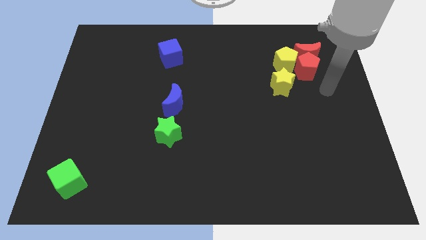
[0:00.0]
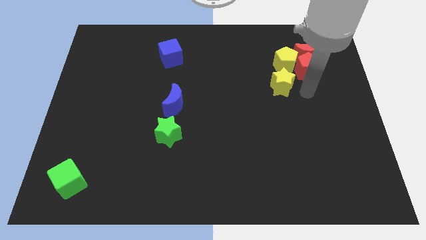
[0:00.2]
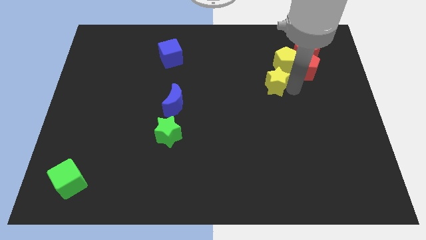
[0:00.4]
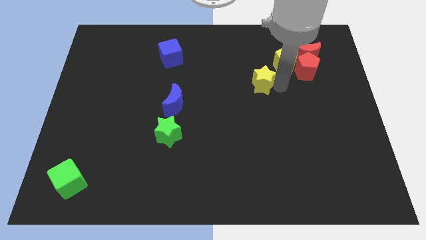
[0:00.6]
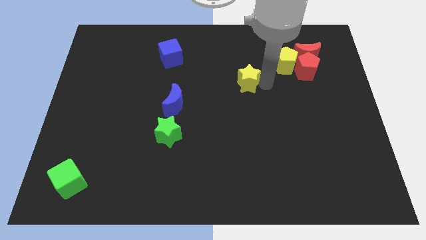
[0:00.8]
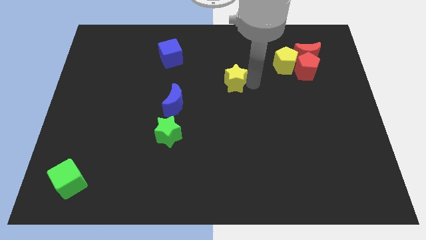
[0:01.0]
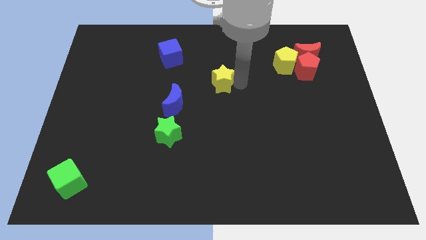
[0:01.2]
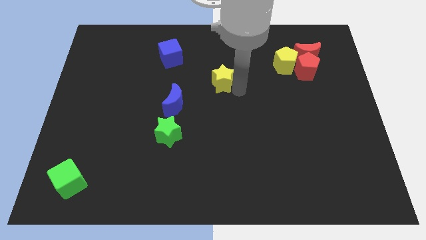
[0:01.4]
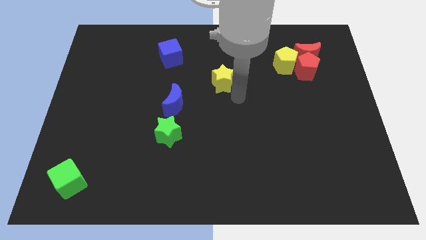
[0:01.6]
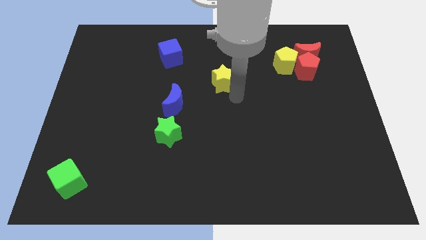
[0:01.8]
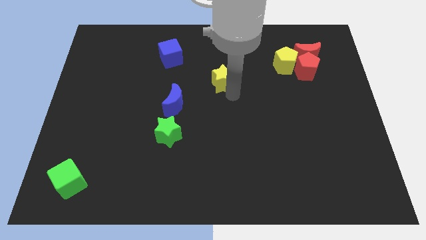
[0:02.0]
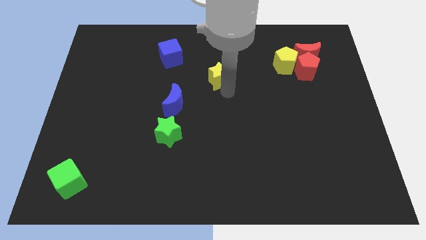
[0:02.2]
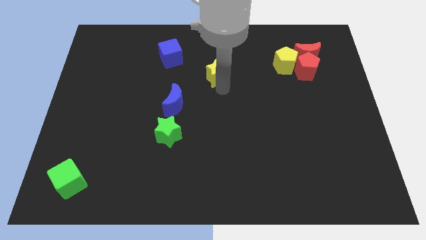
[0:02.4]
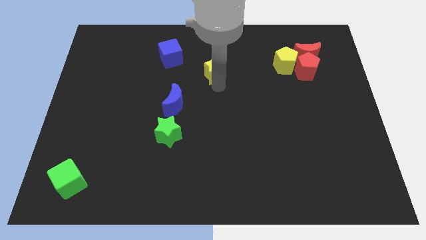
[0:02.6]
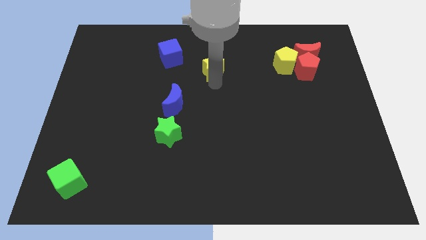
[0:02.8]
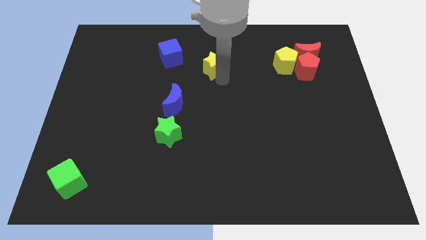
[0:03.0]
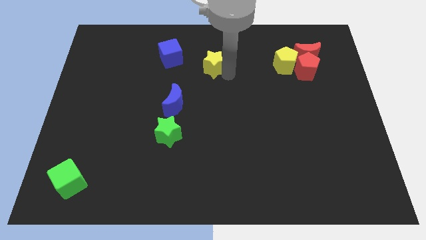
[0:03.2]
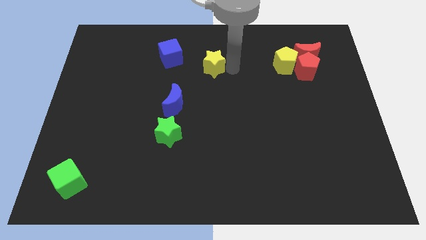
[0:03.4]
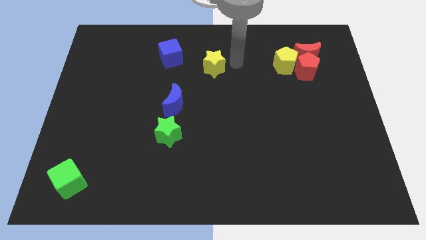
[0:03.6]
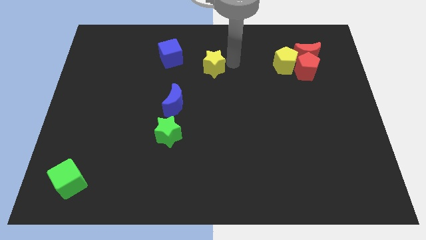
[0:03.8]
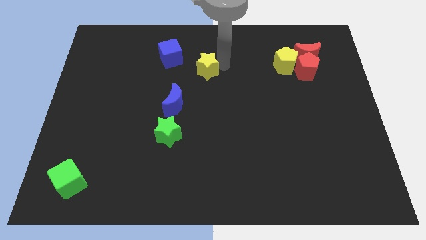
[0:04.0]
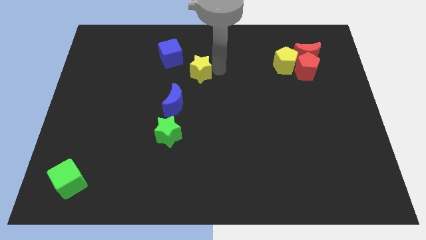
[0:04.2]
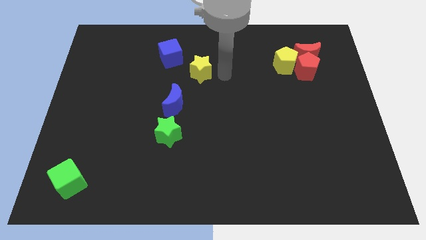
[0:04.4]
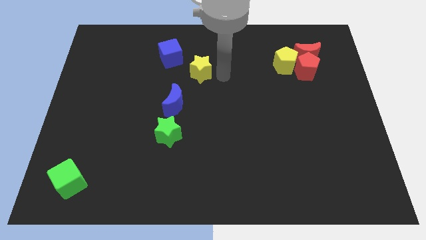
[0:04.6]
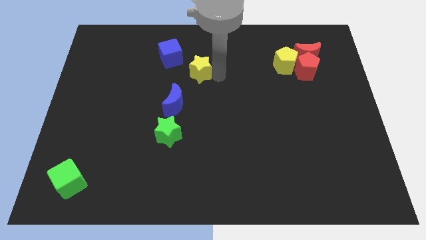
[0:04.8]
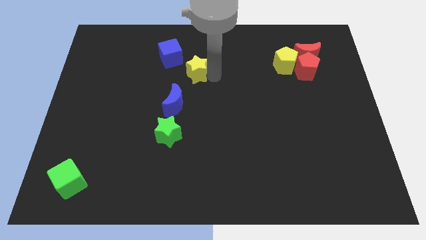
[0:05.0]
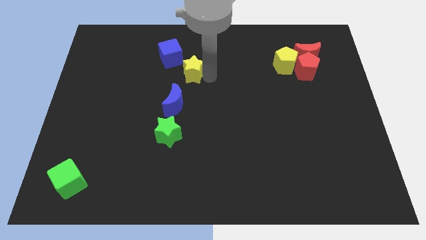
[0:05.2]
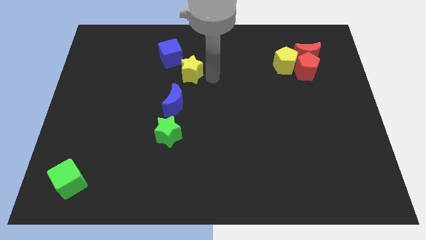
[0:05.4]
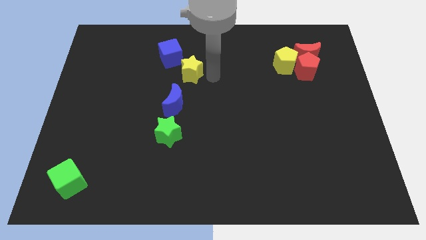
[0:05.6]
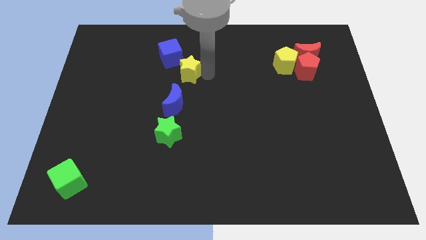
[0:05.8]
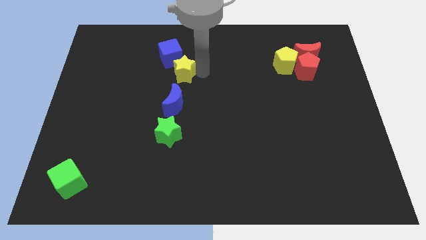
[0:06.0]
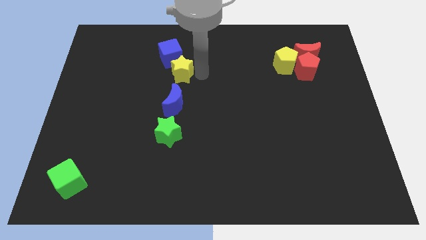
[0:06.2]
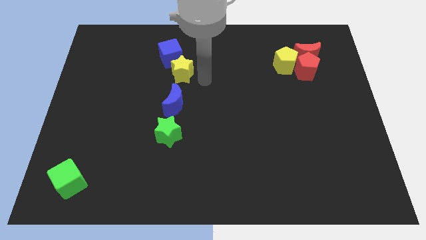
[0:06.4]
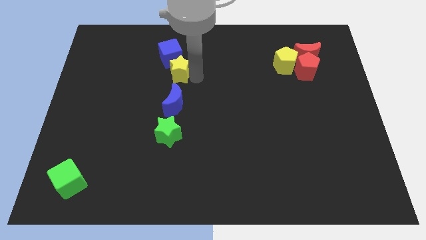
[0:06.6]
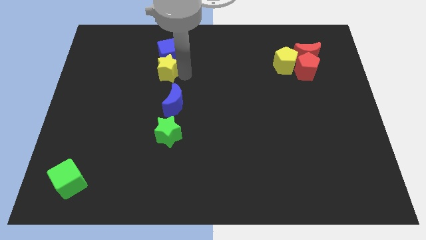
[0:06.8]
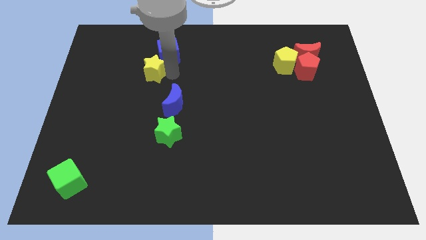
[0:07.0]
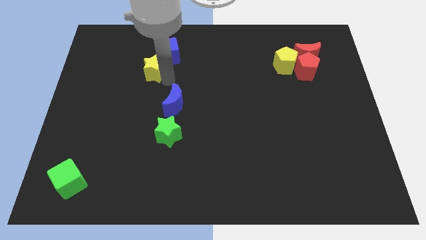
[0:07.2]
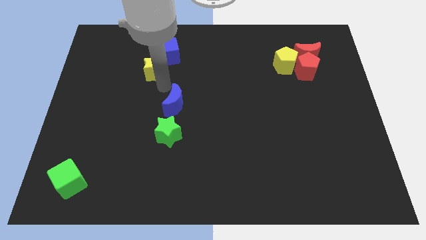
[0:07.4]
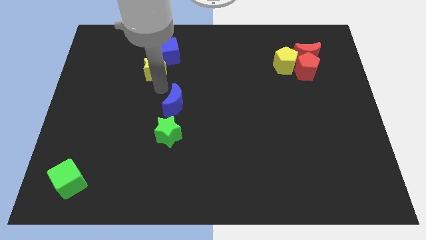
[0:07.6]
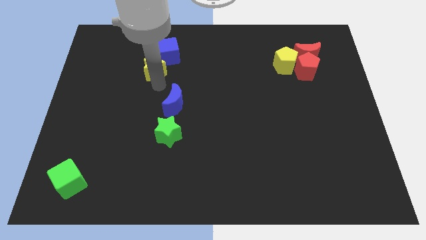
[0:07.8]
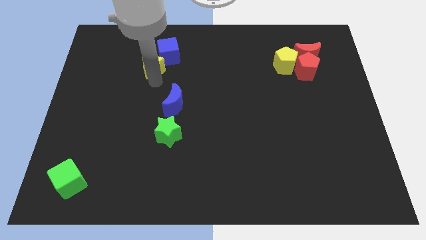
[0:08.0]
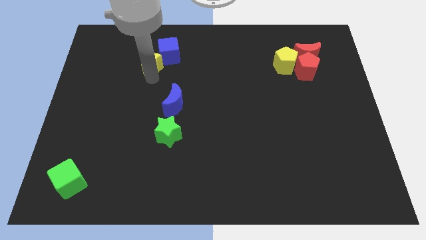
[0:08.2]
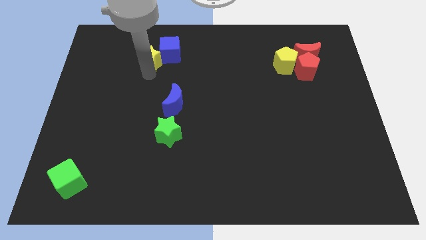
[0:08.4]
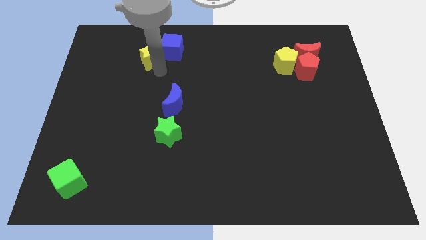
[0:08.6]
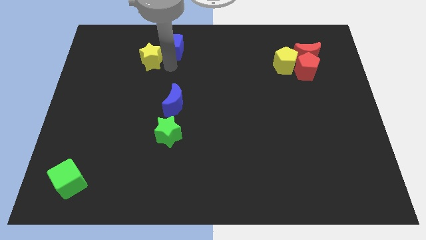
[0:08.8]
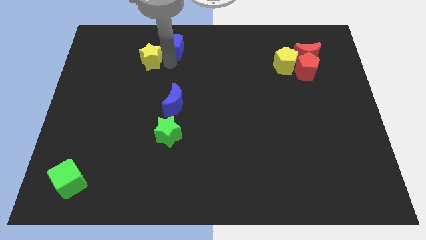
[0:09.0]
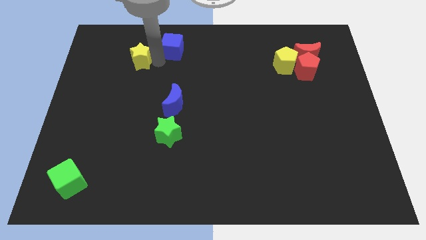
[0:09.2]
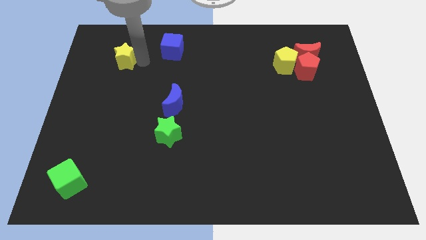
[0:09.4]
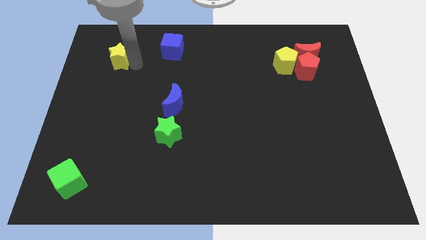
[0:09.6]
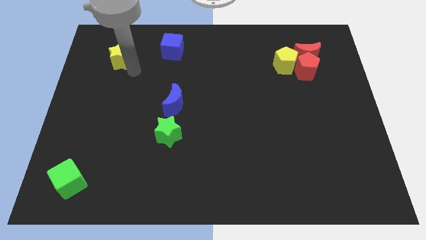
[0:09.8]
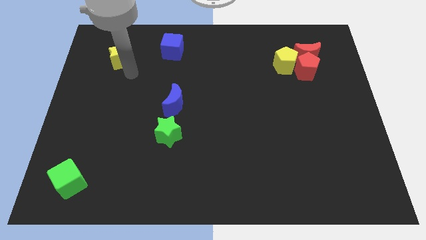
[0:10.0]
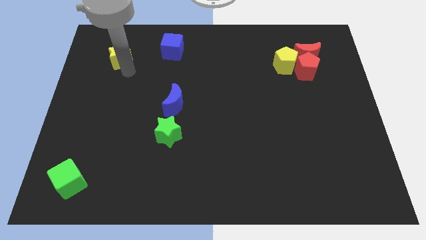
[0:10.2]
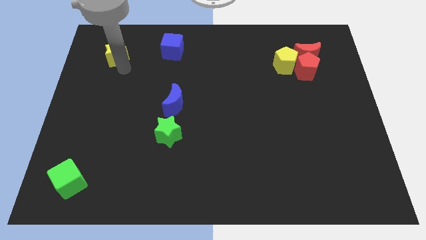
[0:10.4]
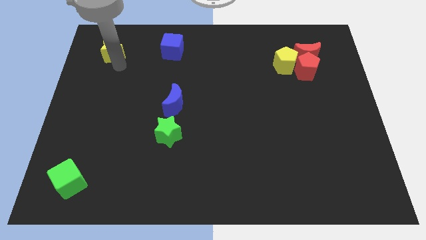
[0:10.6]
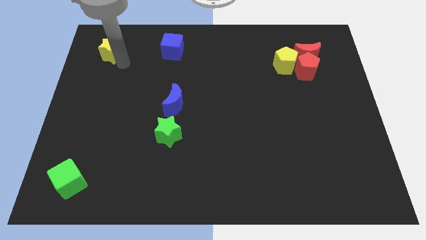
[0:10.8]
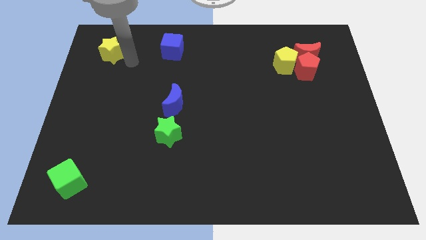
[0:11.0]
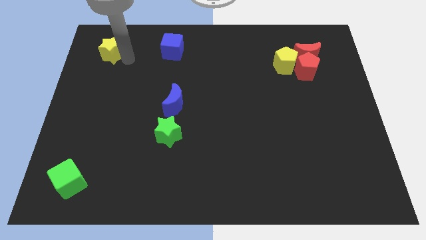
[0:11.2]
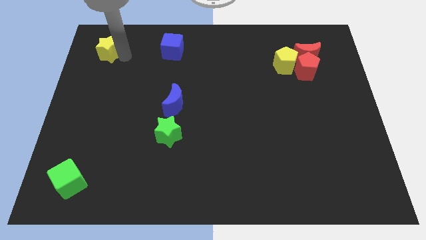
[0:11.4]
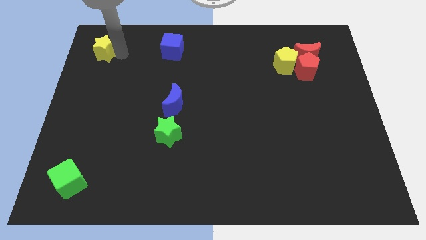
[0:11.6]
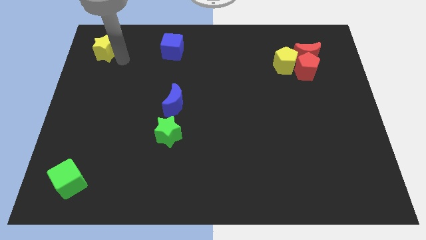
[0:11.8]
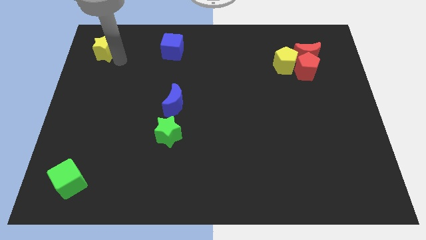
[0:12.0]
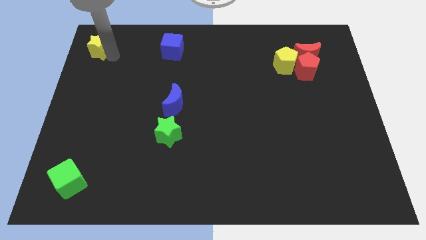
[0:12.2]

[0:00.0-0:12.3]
push the yellow star to the top left corner
